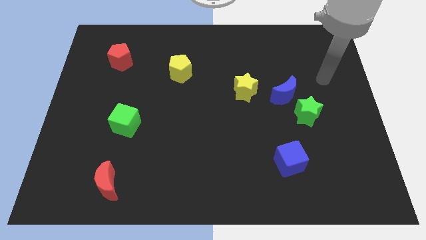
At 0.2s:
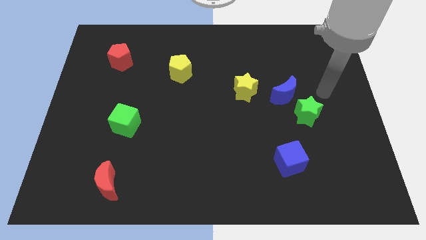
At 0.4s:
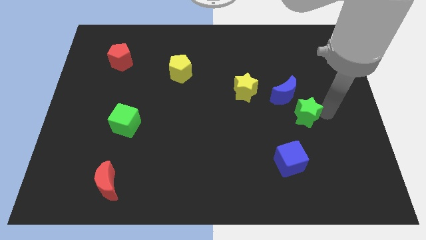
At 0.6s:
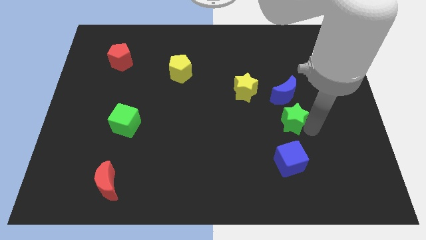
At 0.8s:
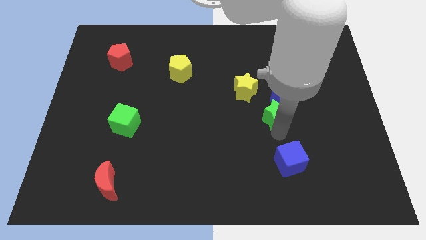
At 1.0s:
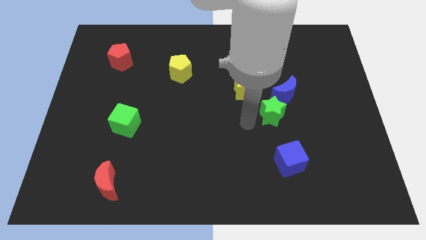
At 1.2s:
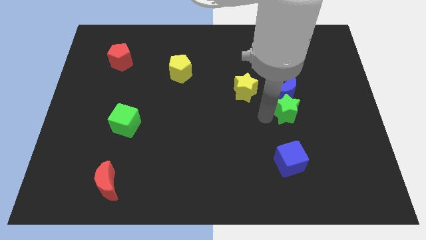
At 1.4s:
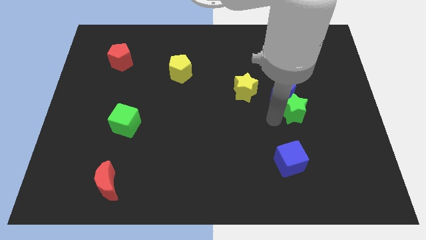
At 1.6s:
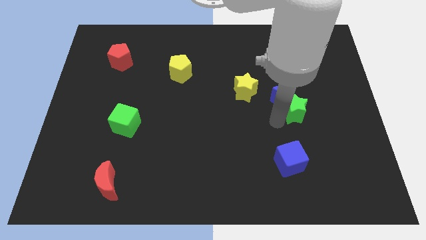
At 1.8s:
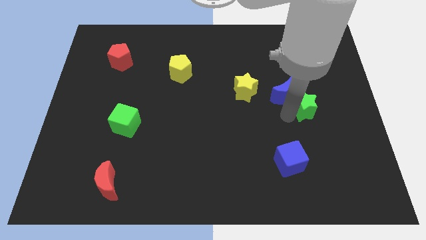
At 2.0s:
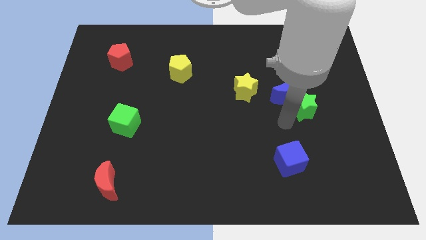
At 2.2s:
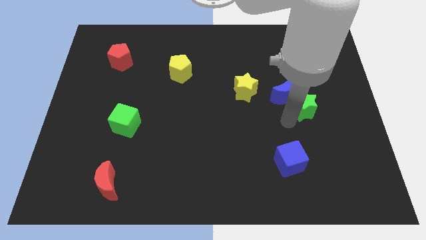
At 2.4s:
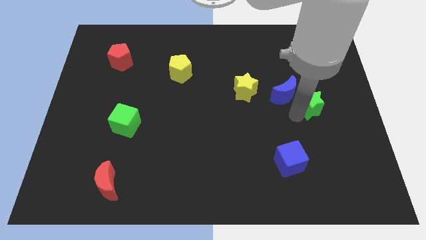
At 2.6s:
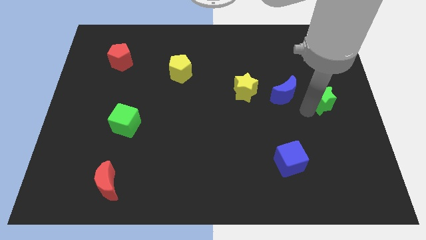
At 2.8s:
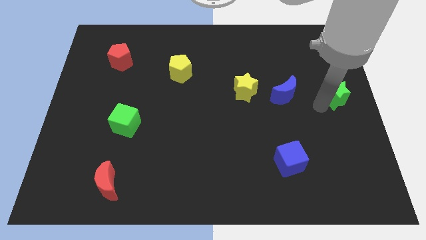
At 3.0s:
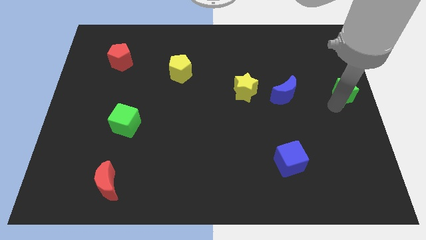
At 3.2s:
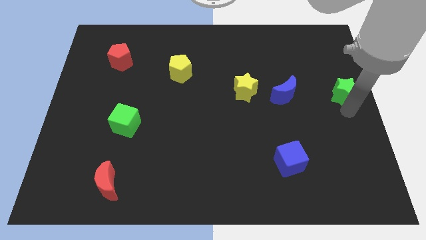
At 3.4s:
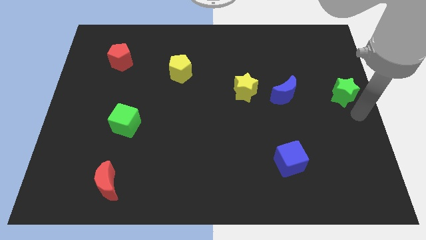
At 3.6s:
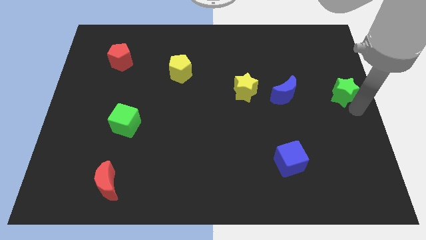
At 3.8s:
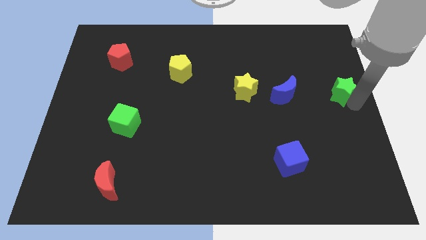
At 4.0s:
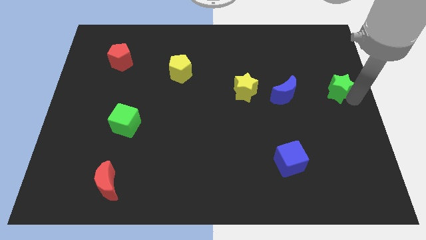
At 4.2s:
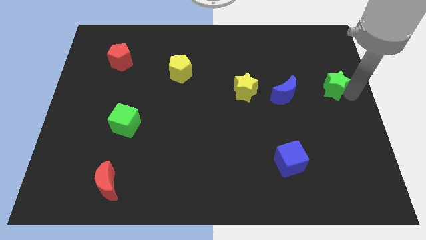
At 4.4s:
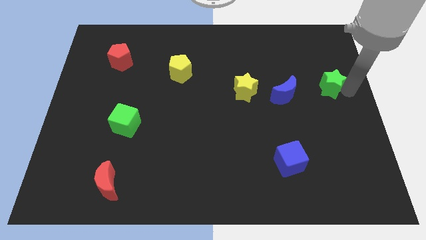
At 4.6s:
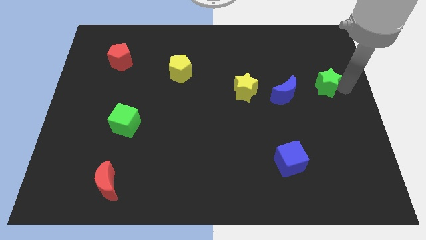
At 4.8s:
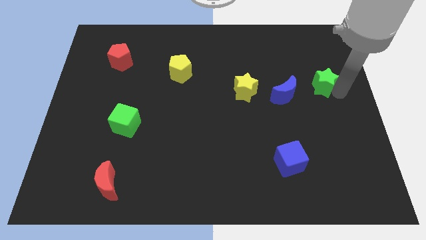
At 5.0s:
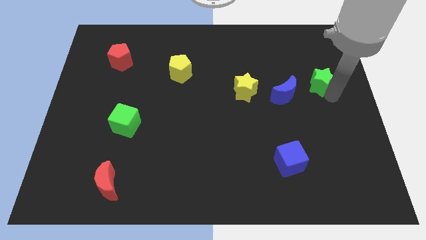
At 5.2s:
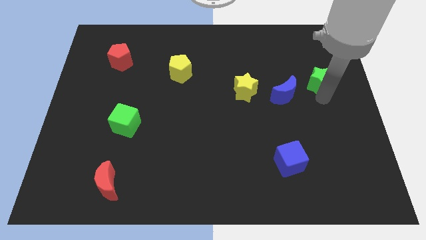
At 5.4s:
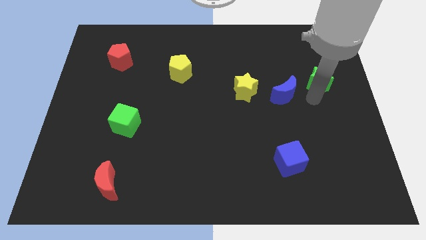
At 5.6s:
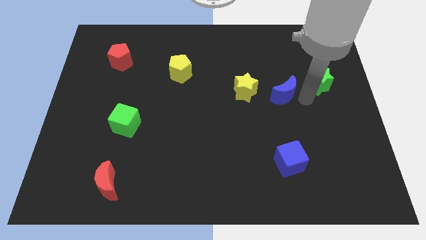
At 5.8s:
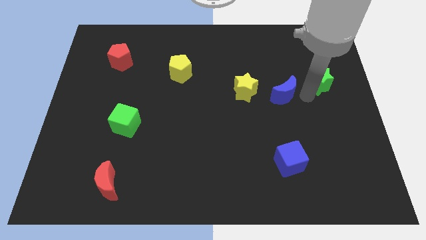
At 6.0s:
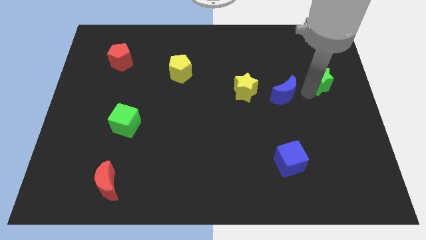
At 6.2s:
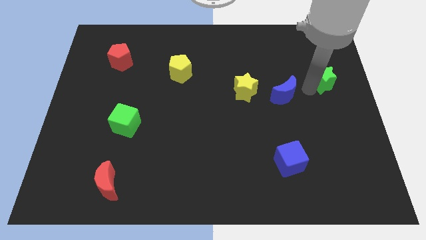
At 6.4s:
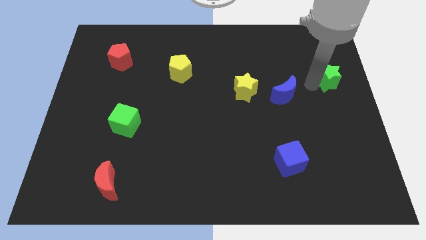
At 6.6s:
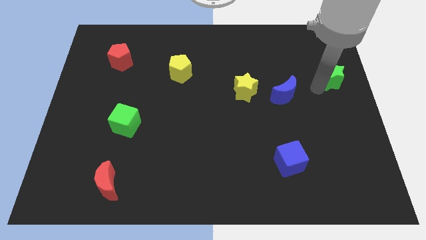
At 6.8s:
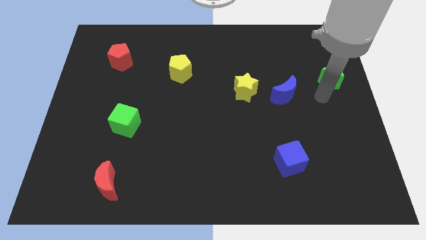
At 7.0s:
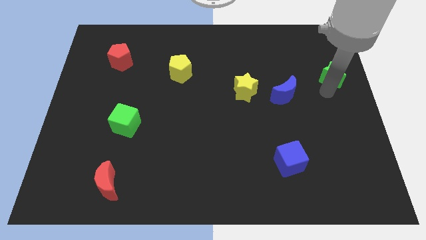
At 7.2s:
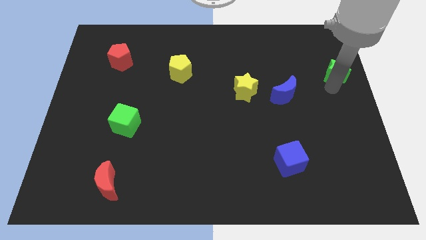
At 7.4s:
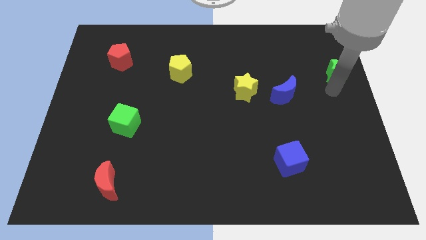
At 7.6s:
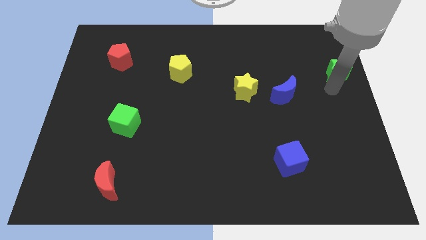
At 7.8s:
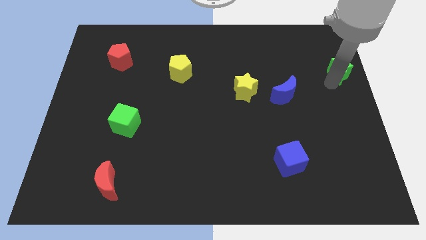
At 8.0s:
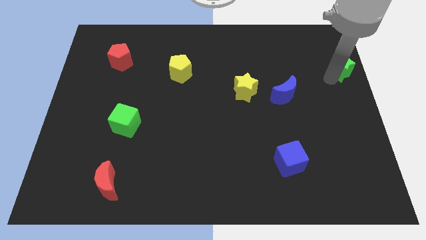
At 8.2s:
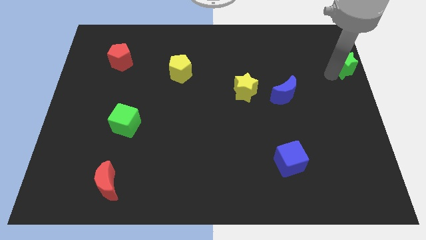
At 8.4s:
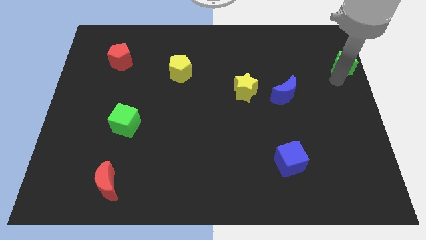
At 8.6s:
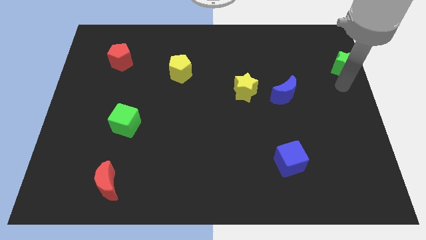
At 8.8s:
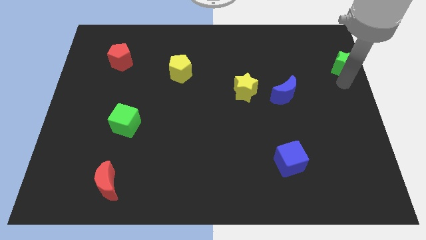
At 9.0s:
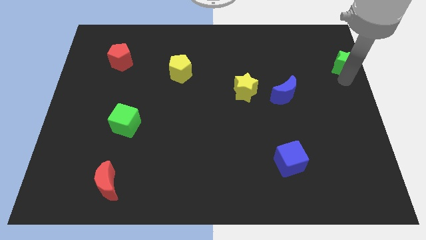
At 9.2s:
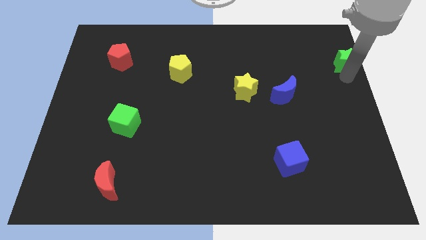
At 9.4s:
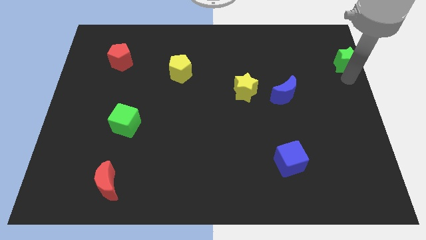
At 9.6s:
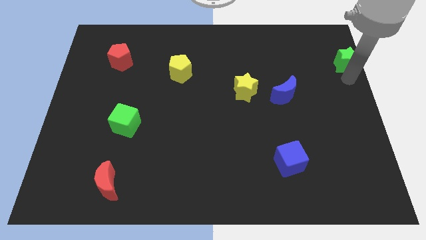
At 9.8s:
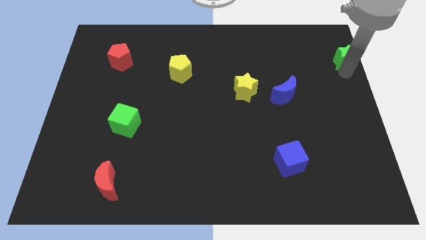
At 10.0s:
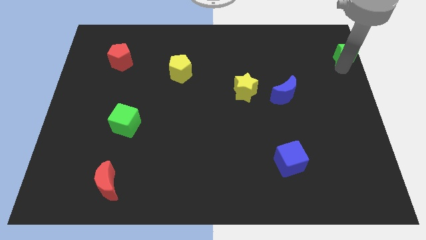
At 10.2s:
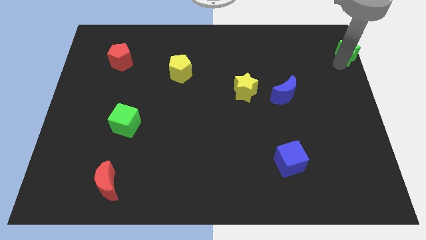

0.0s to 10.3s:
push the green star to the top right
